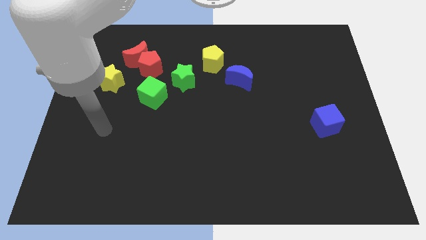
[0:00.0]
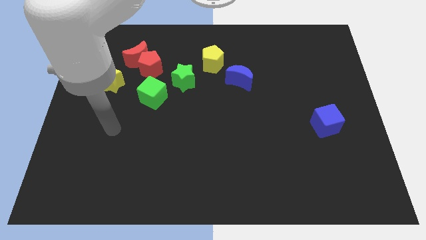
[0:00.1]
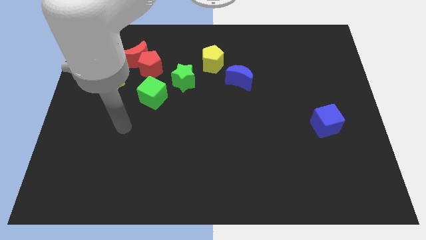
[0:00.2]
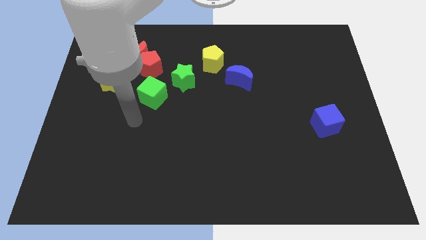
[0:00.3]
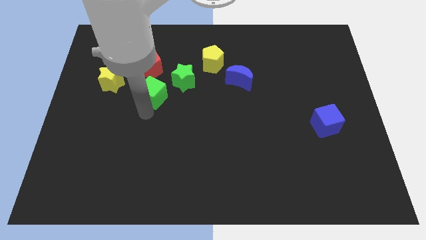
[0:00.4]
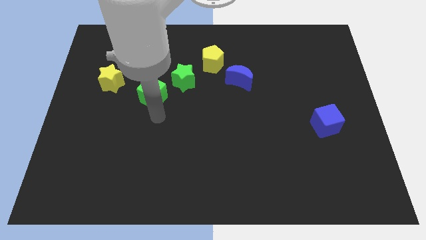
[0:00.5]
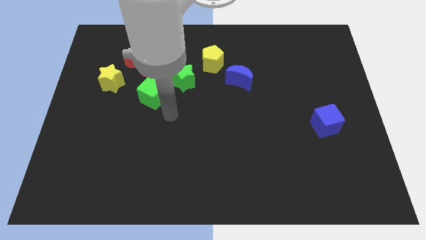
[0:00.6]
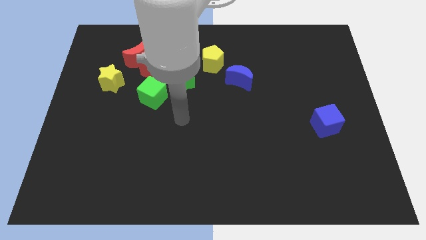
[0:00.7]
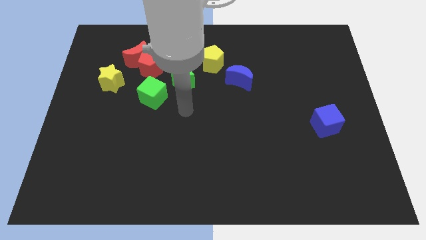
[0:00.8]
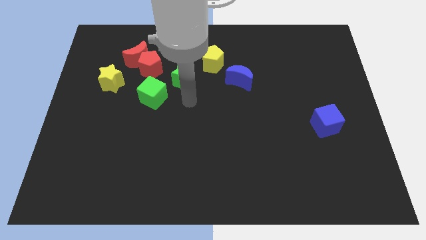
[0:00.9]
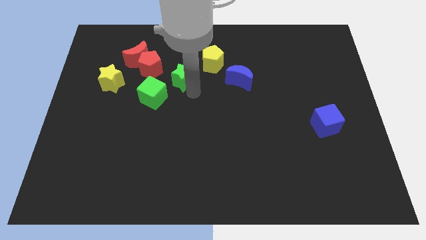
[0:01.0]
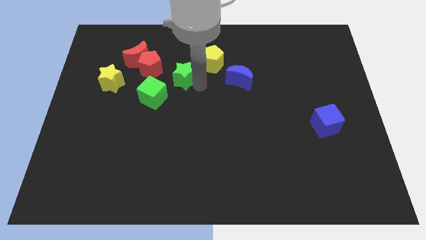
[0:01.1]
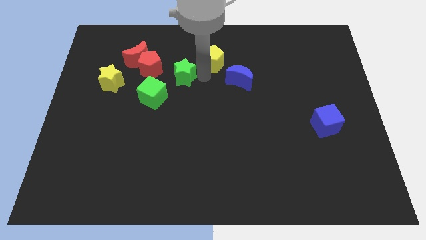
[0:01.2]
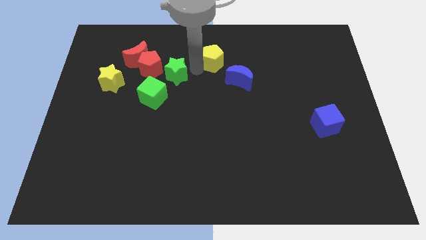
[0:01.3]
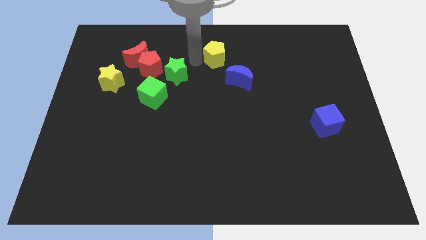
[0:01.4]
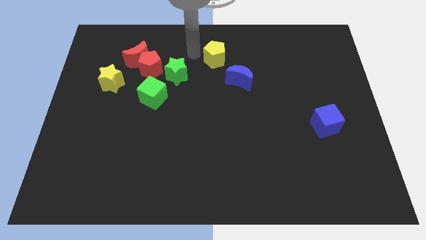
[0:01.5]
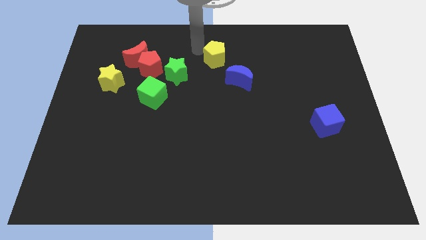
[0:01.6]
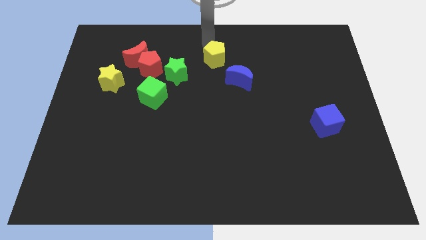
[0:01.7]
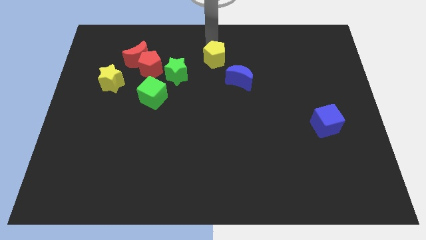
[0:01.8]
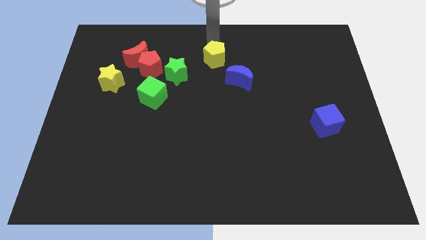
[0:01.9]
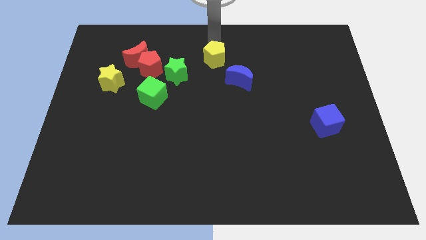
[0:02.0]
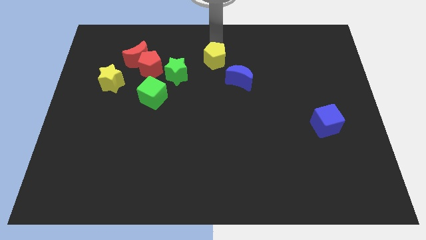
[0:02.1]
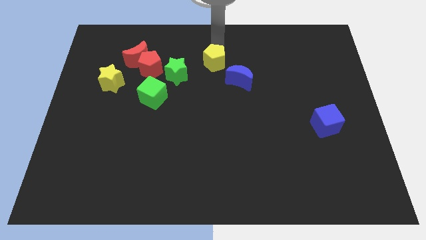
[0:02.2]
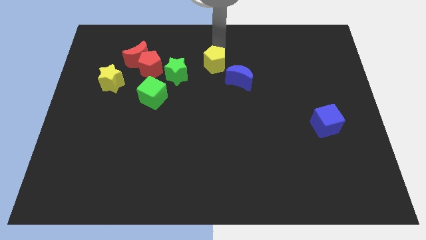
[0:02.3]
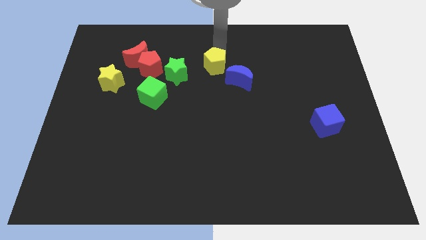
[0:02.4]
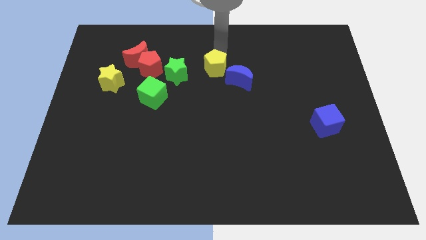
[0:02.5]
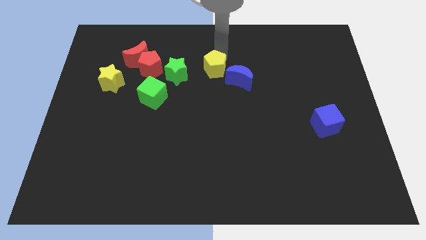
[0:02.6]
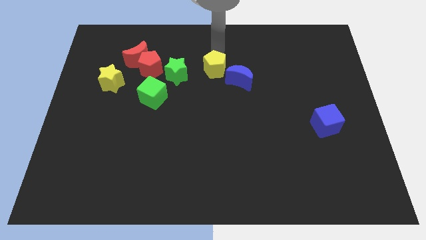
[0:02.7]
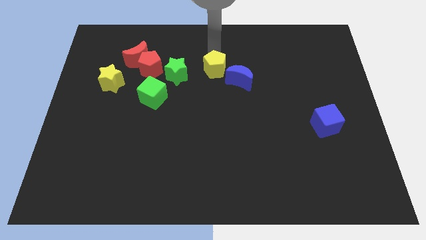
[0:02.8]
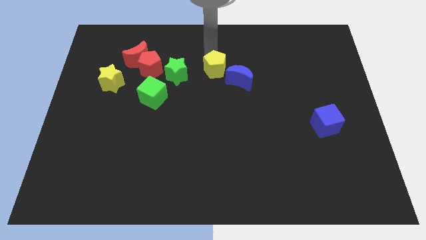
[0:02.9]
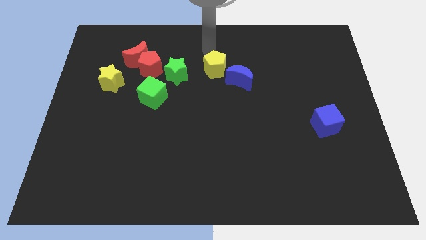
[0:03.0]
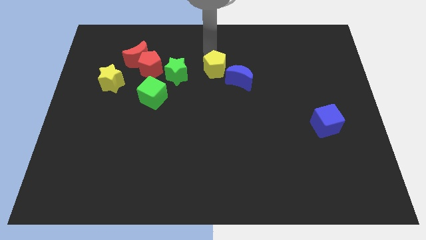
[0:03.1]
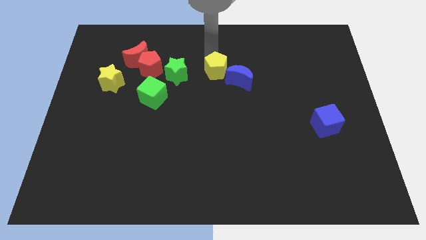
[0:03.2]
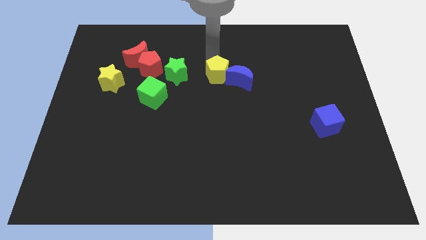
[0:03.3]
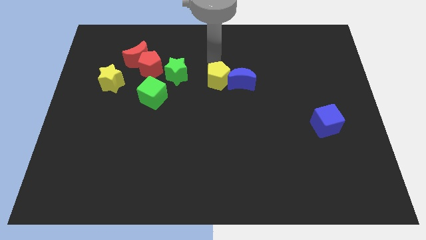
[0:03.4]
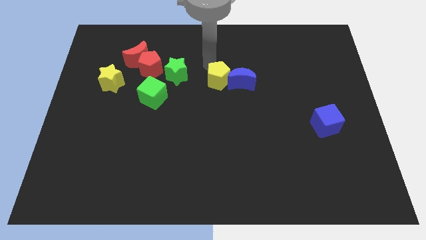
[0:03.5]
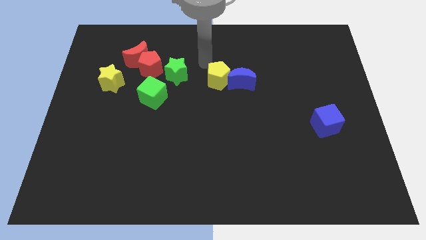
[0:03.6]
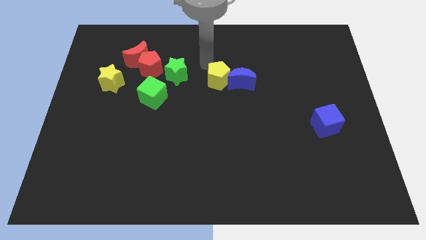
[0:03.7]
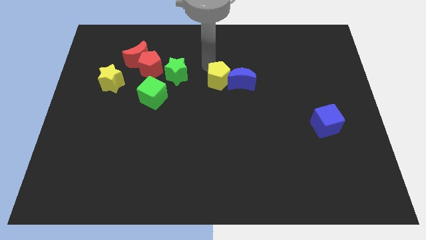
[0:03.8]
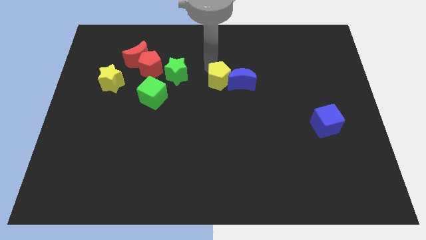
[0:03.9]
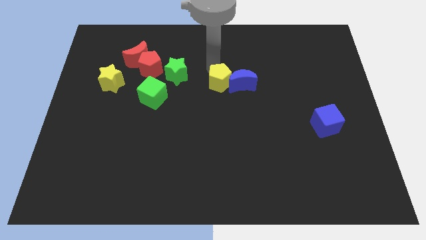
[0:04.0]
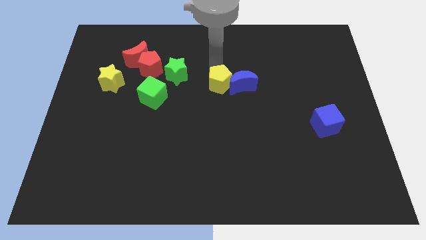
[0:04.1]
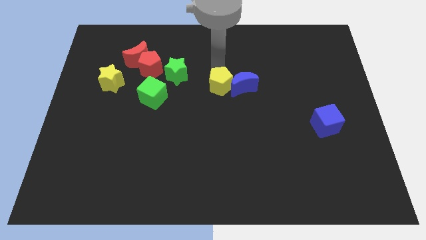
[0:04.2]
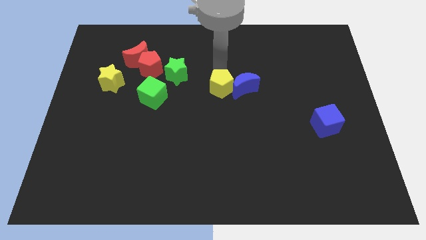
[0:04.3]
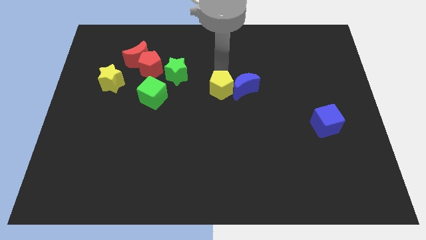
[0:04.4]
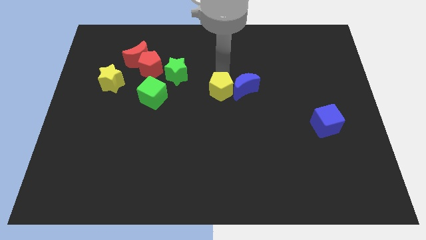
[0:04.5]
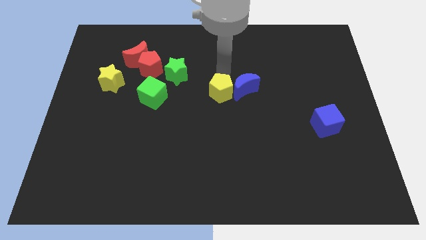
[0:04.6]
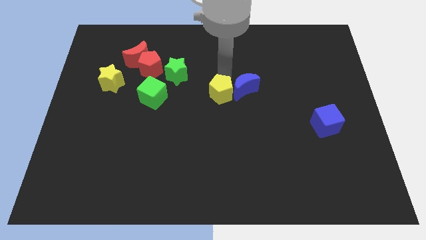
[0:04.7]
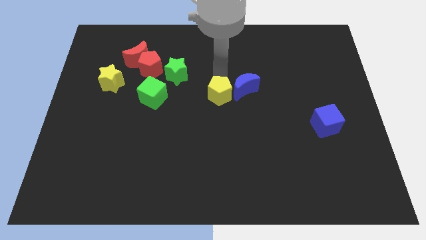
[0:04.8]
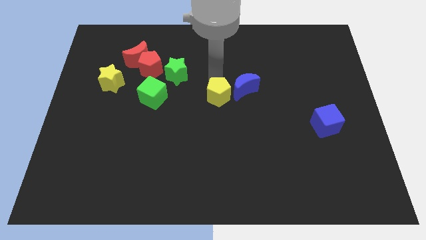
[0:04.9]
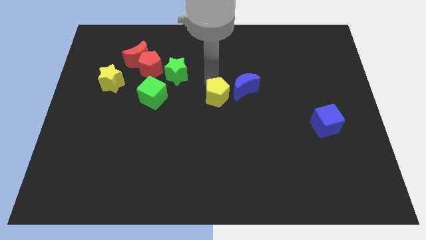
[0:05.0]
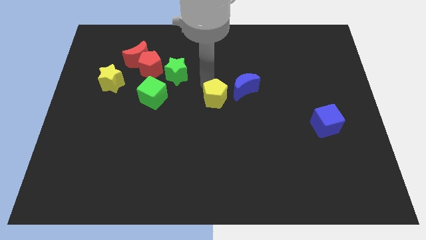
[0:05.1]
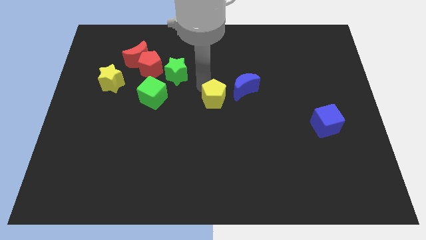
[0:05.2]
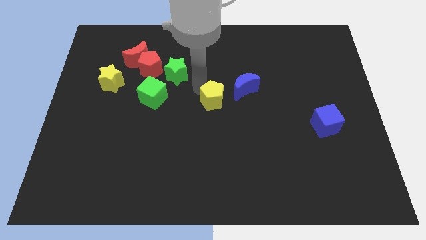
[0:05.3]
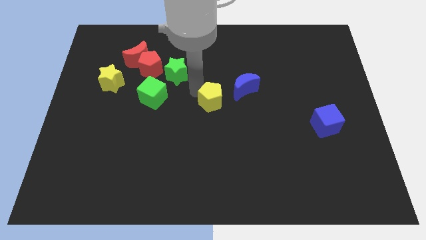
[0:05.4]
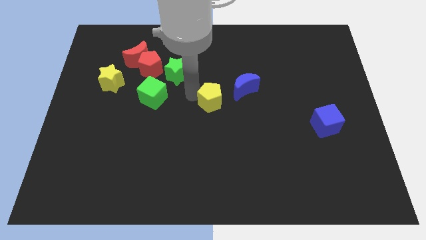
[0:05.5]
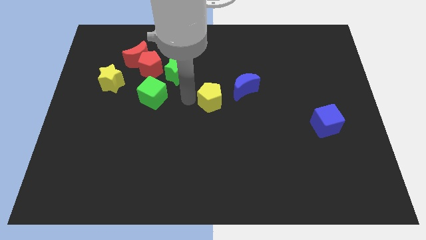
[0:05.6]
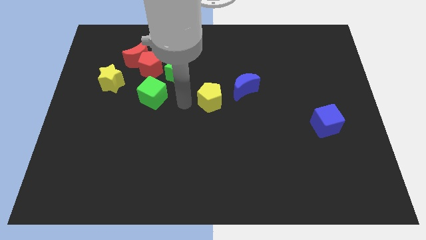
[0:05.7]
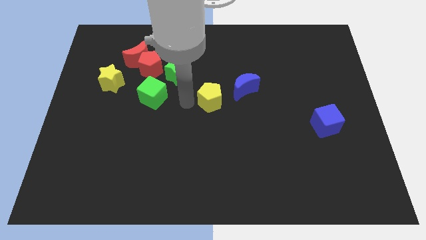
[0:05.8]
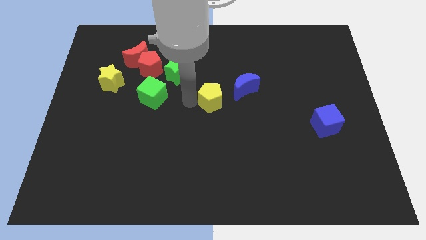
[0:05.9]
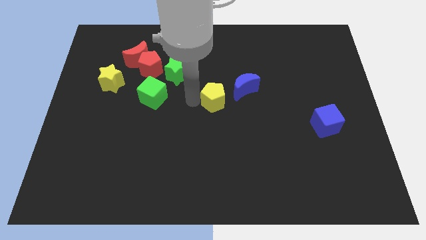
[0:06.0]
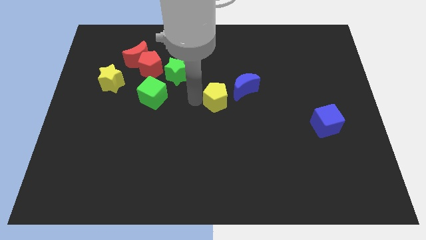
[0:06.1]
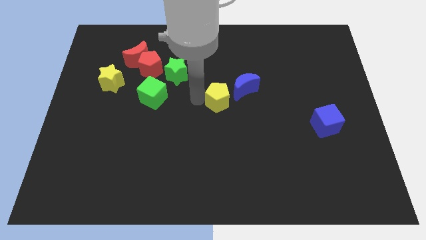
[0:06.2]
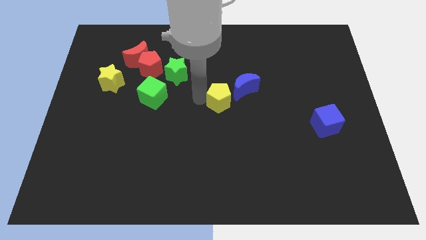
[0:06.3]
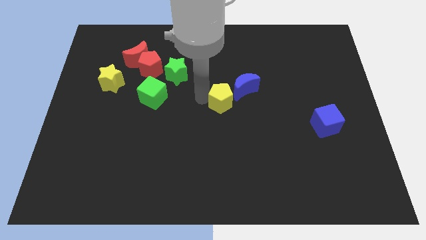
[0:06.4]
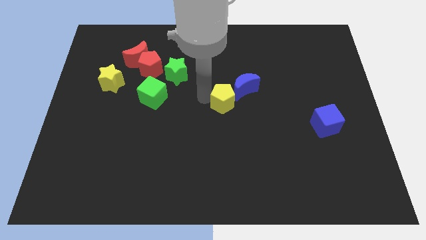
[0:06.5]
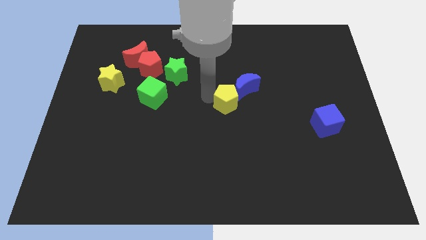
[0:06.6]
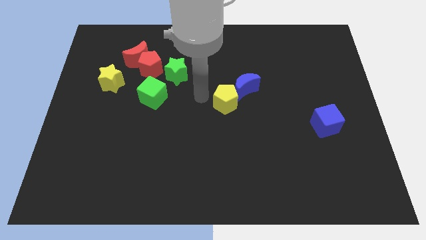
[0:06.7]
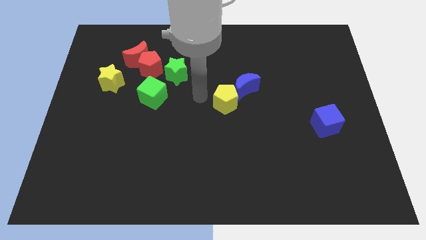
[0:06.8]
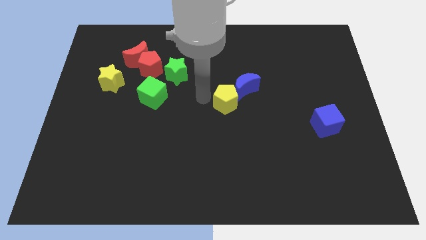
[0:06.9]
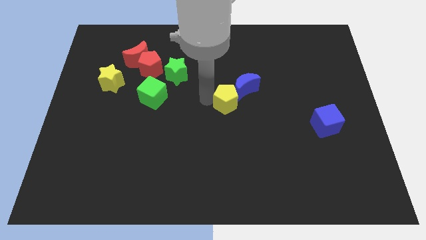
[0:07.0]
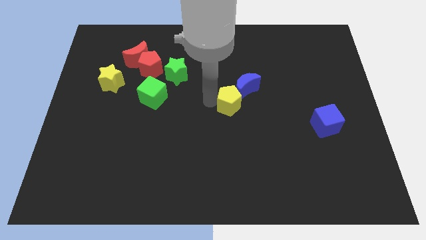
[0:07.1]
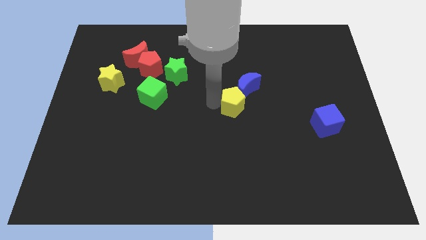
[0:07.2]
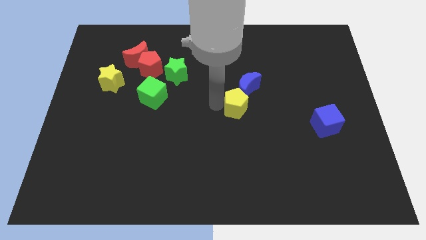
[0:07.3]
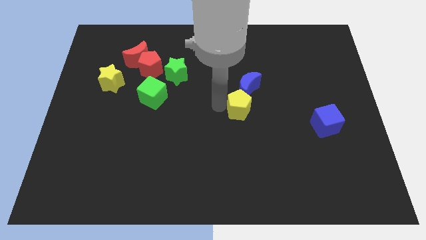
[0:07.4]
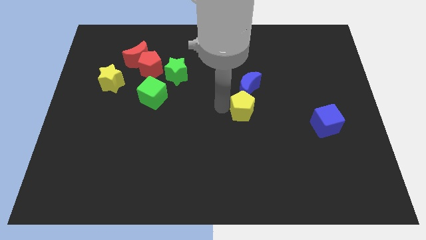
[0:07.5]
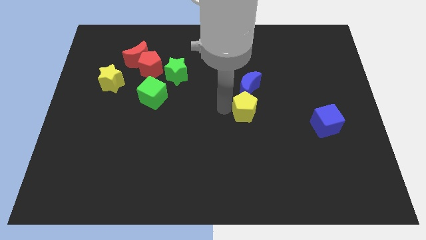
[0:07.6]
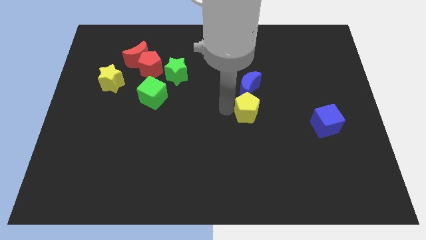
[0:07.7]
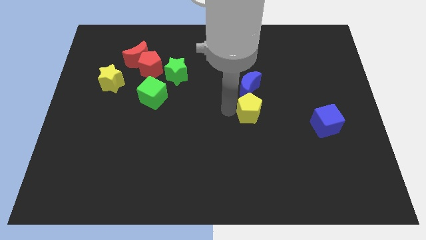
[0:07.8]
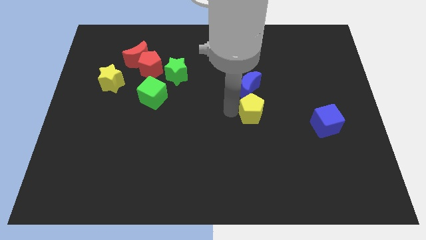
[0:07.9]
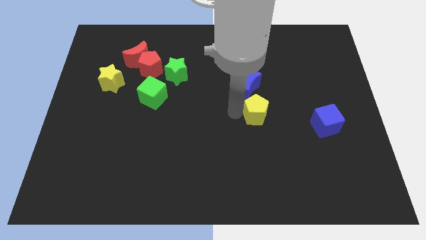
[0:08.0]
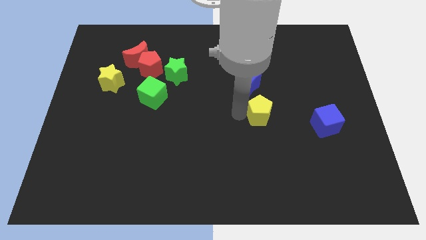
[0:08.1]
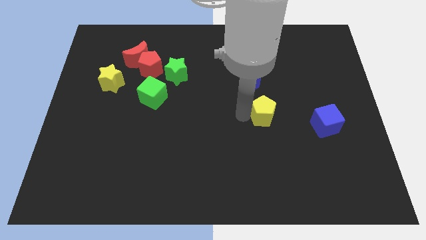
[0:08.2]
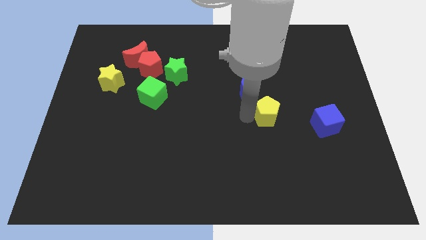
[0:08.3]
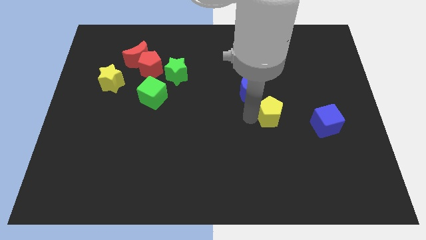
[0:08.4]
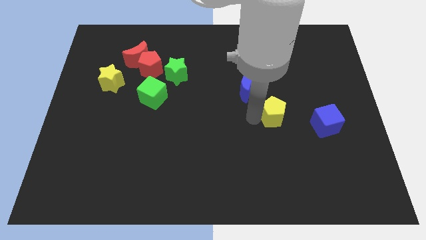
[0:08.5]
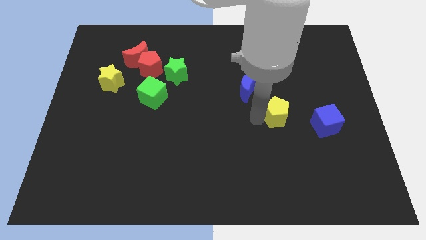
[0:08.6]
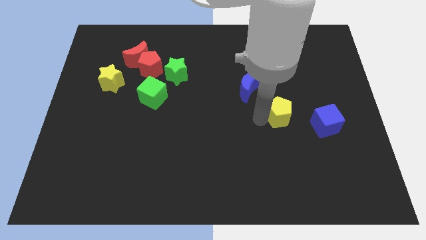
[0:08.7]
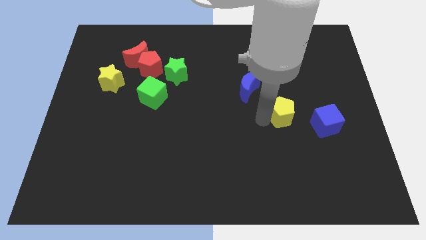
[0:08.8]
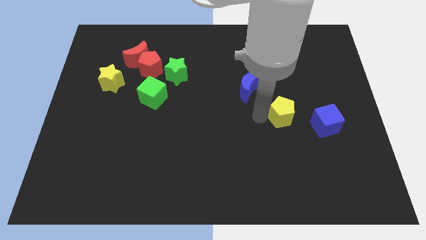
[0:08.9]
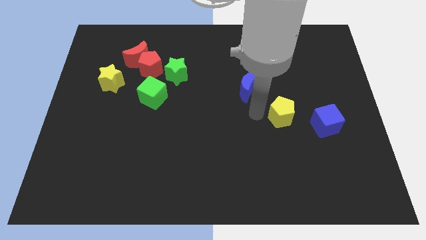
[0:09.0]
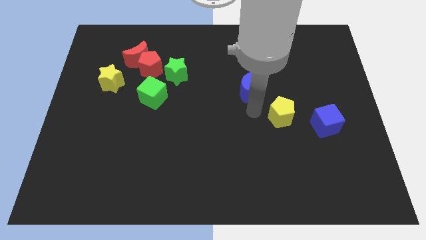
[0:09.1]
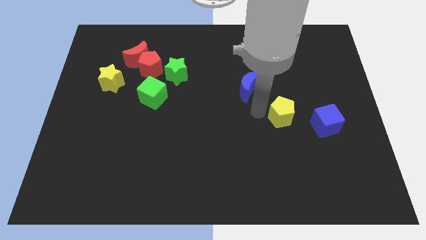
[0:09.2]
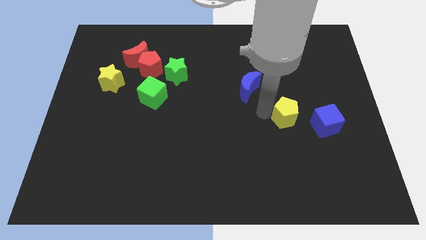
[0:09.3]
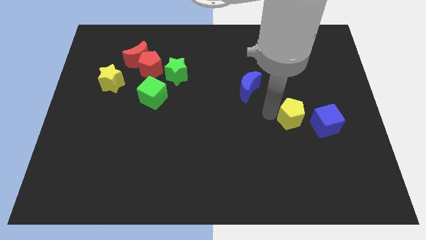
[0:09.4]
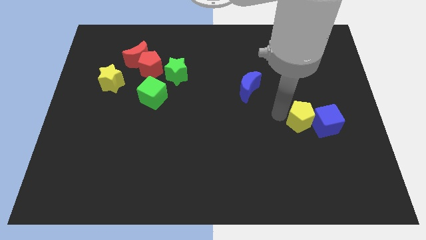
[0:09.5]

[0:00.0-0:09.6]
slide the yellow pentagon close to the blue cube
